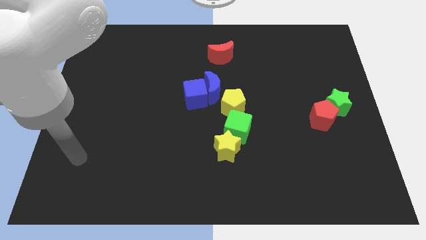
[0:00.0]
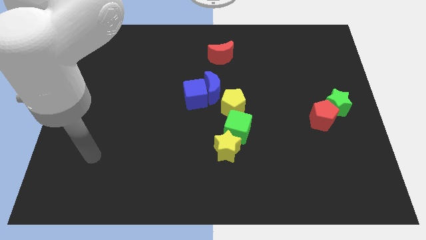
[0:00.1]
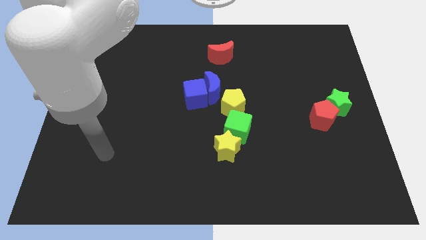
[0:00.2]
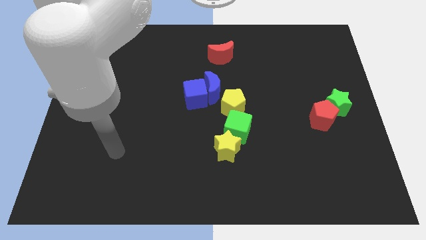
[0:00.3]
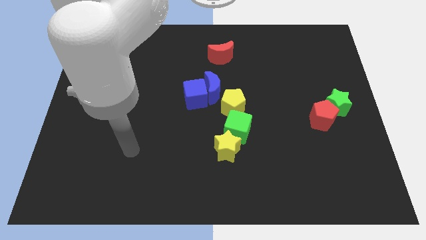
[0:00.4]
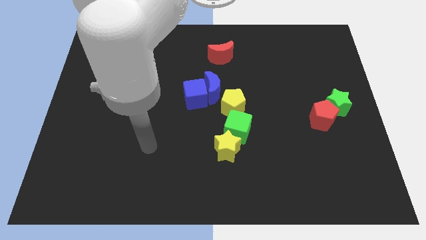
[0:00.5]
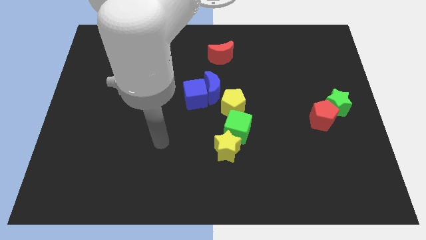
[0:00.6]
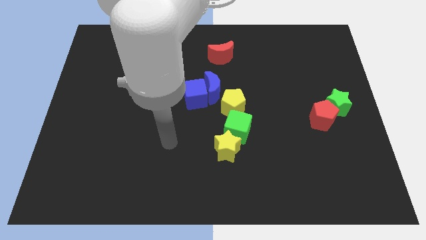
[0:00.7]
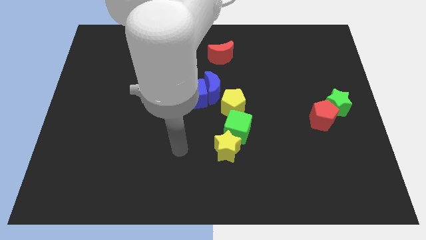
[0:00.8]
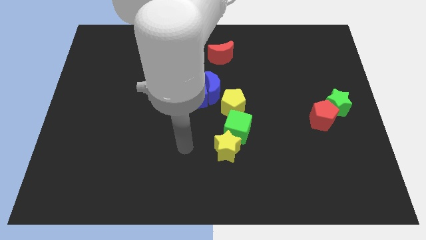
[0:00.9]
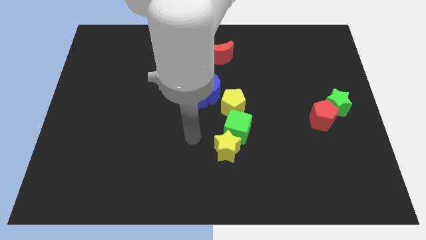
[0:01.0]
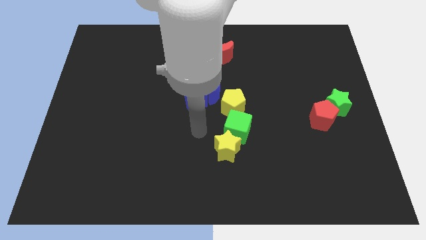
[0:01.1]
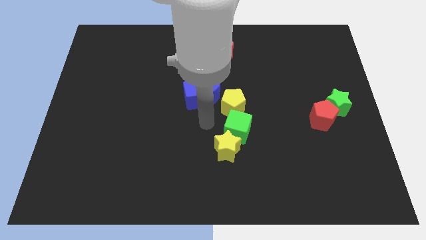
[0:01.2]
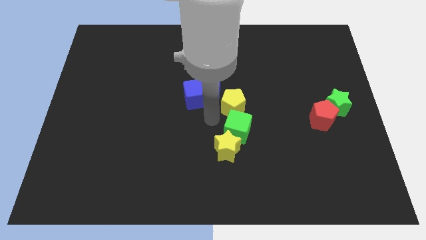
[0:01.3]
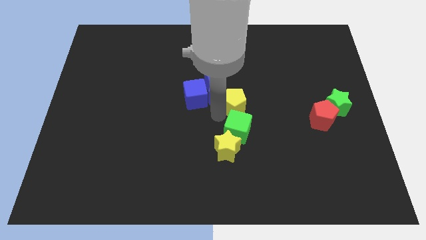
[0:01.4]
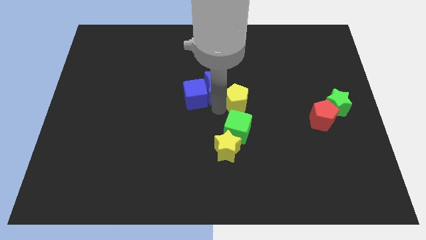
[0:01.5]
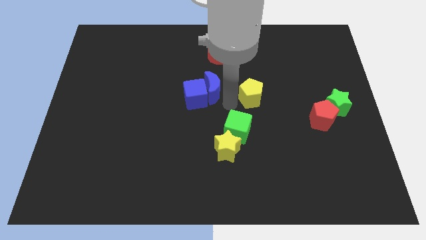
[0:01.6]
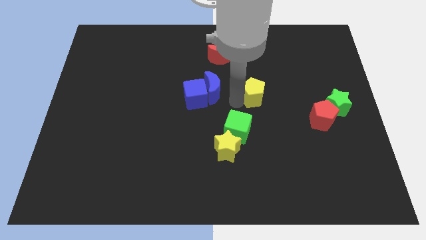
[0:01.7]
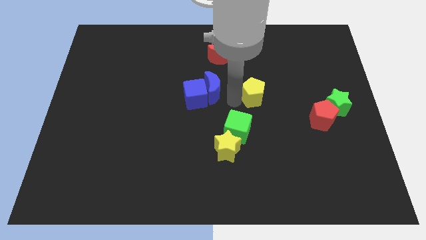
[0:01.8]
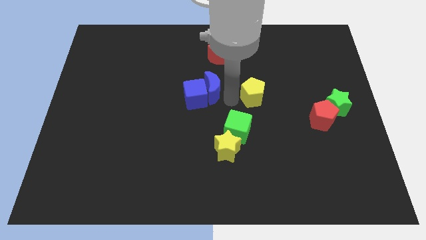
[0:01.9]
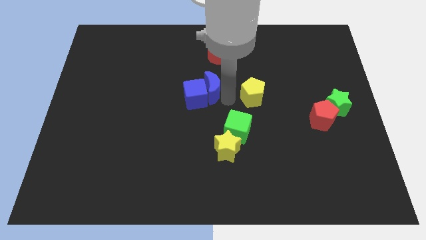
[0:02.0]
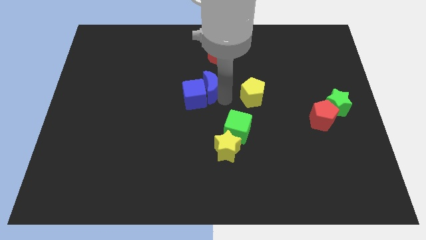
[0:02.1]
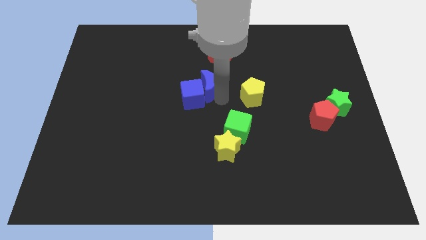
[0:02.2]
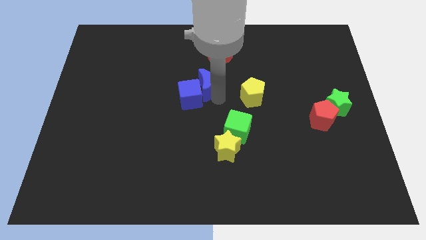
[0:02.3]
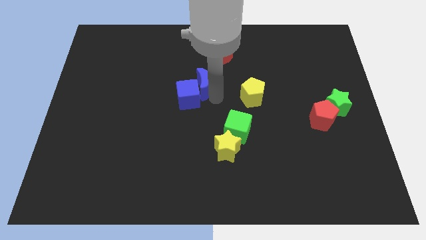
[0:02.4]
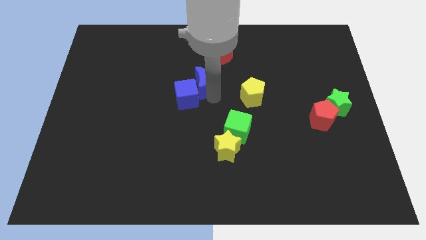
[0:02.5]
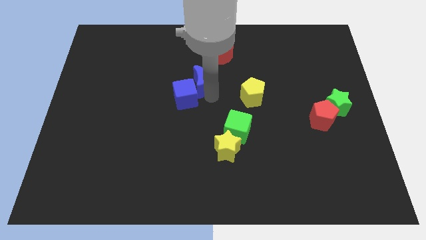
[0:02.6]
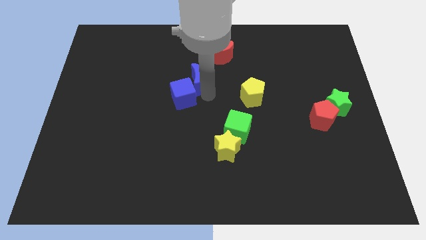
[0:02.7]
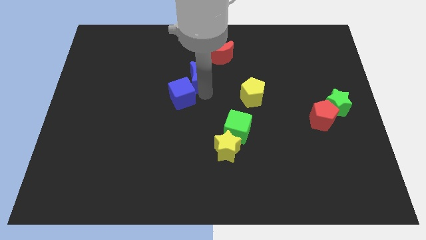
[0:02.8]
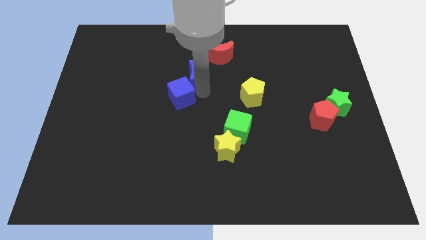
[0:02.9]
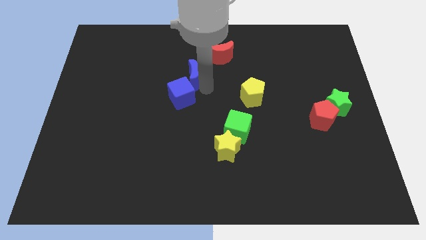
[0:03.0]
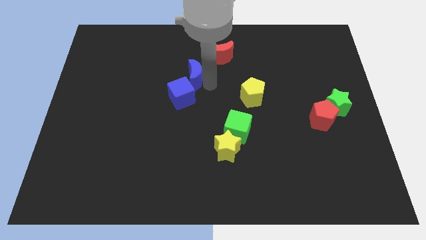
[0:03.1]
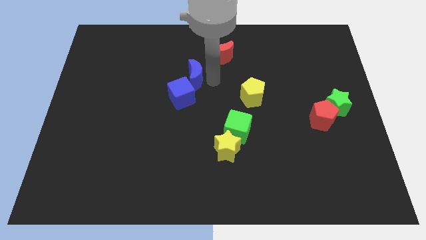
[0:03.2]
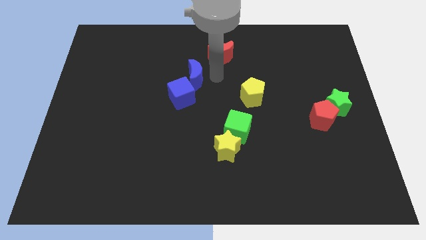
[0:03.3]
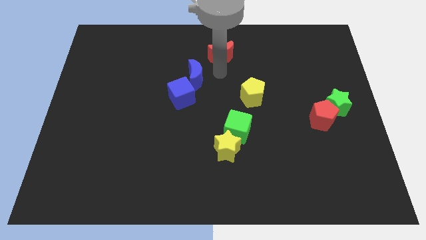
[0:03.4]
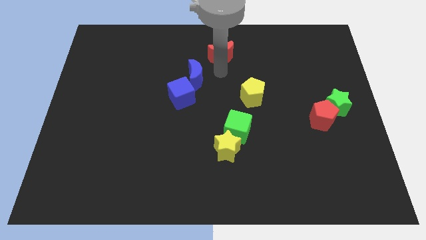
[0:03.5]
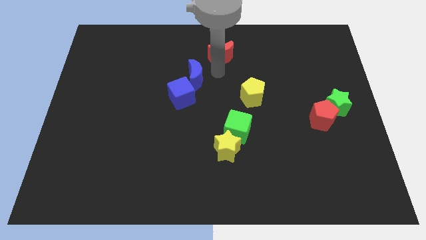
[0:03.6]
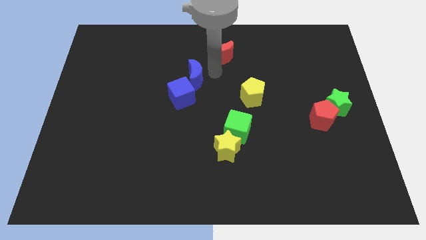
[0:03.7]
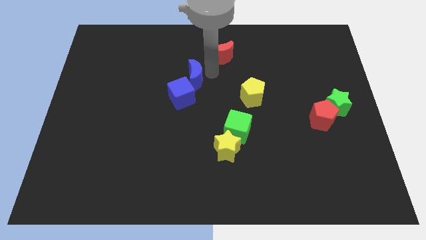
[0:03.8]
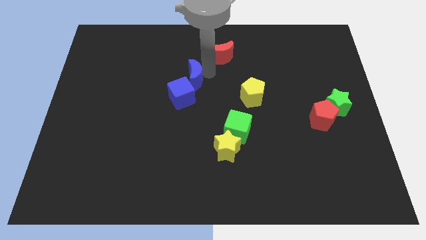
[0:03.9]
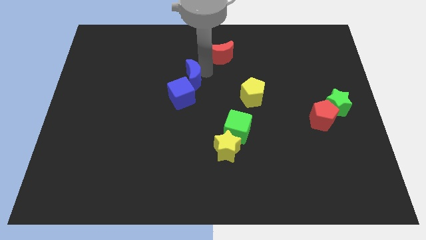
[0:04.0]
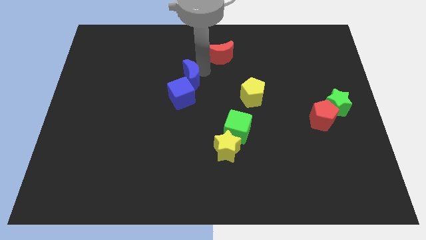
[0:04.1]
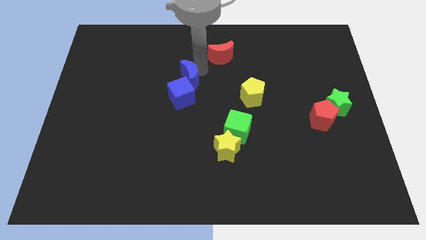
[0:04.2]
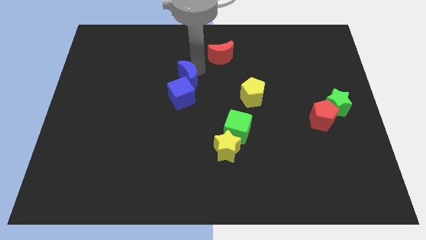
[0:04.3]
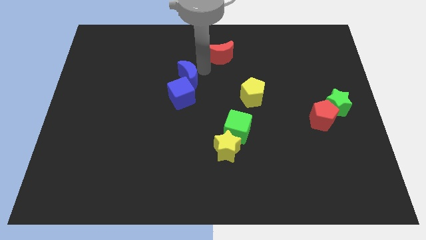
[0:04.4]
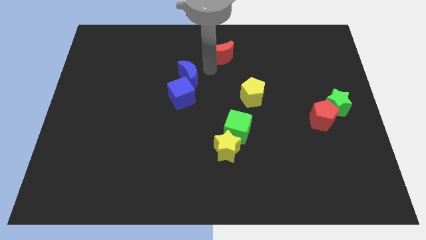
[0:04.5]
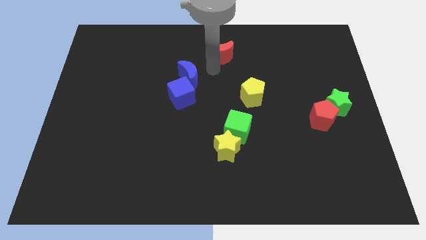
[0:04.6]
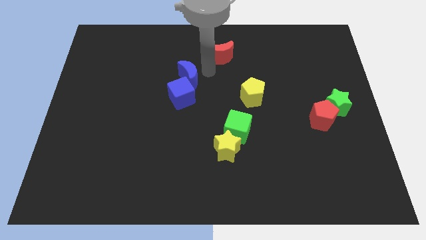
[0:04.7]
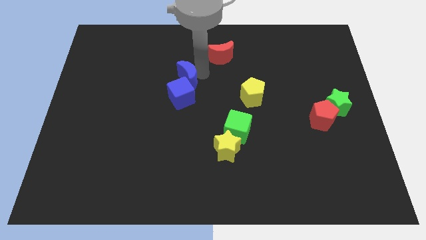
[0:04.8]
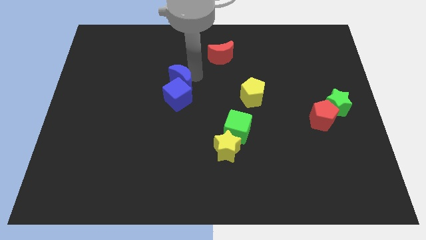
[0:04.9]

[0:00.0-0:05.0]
move the blue moon left somewhat

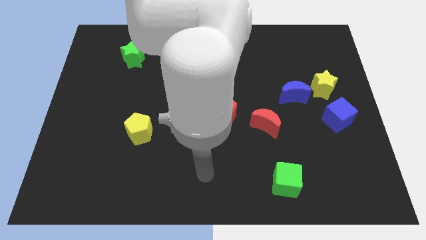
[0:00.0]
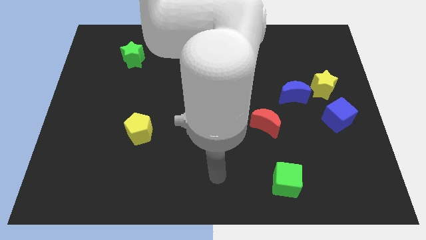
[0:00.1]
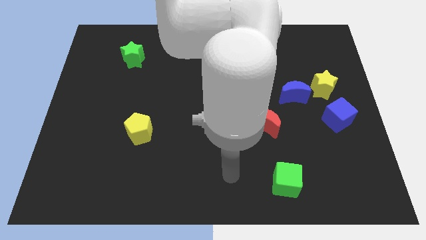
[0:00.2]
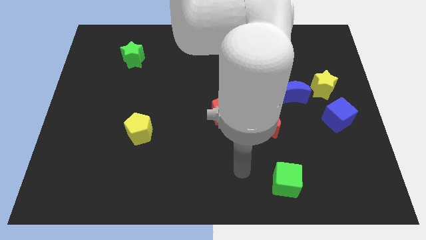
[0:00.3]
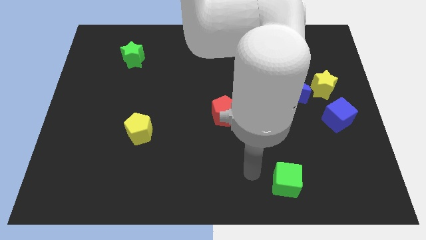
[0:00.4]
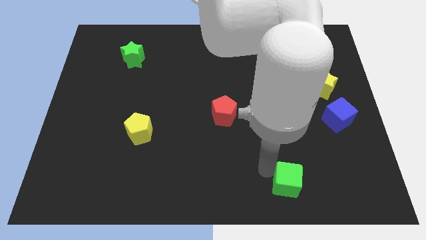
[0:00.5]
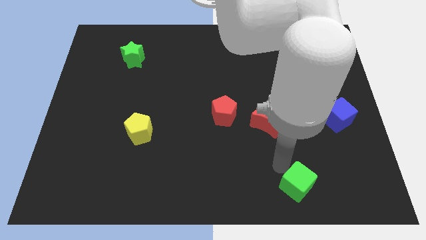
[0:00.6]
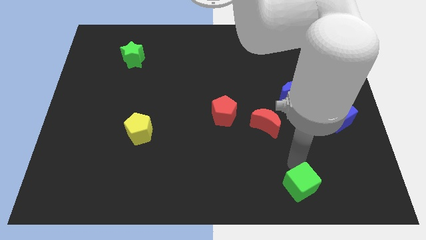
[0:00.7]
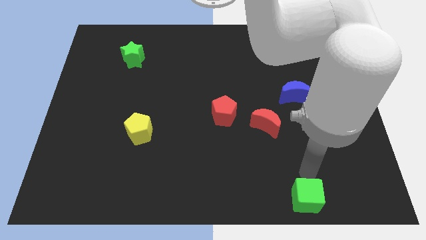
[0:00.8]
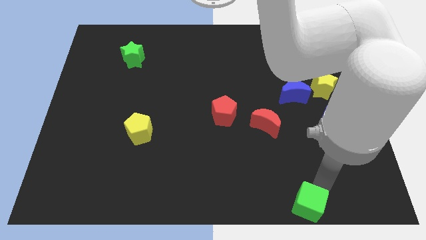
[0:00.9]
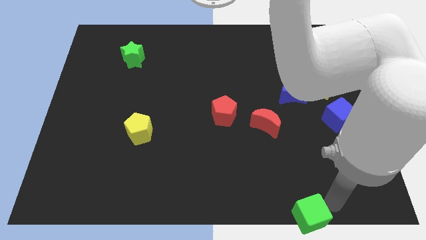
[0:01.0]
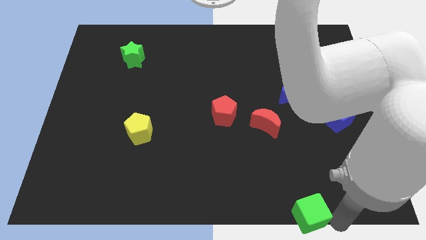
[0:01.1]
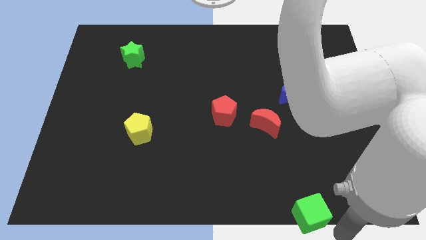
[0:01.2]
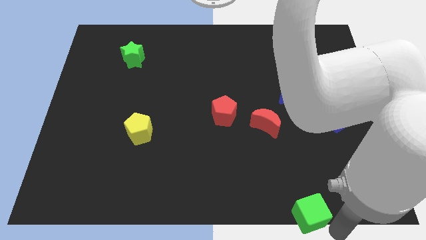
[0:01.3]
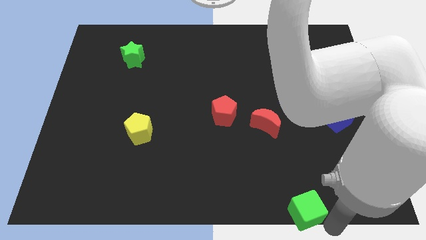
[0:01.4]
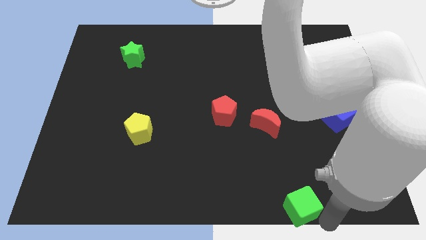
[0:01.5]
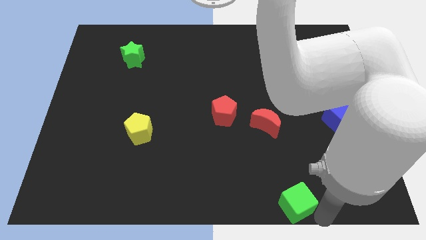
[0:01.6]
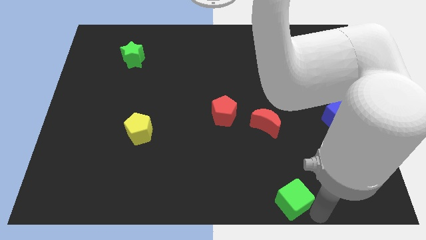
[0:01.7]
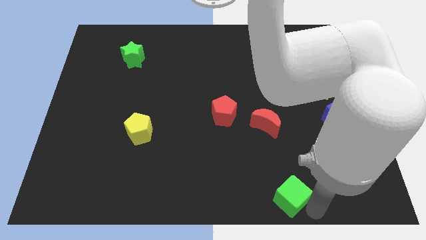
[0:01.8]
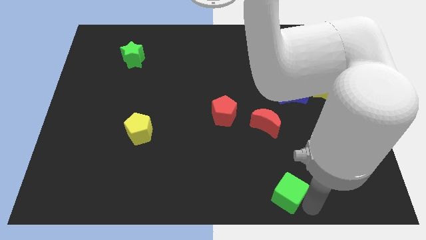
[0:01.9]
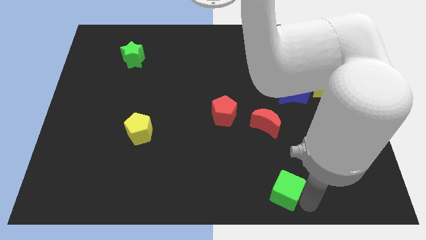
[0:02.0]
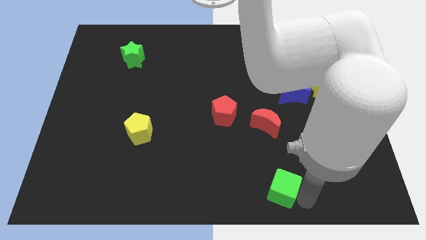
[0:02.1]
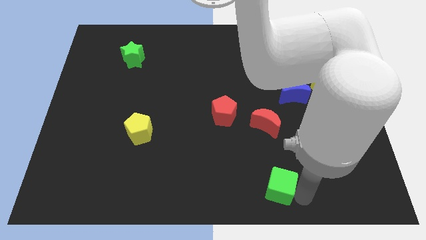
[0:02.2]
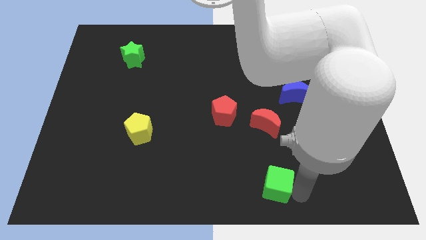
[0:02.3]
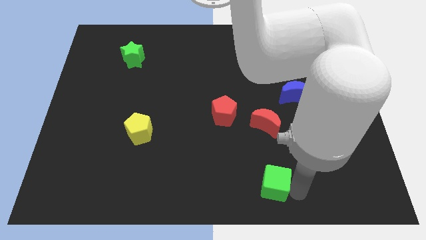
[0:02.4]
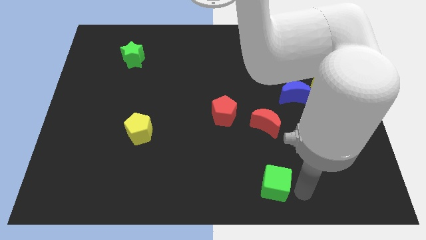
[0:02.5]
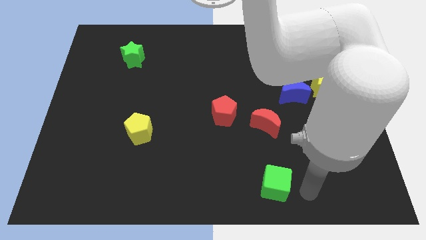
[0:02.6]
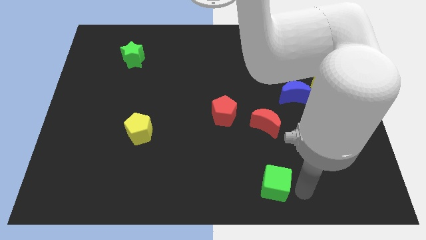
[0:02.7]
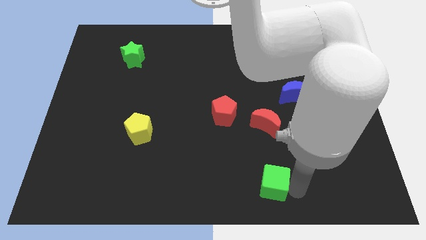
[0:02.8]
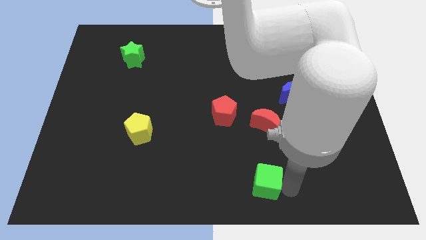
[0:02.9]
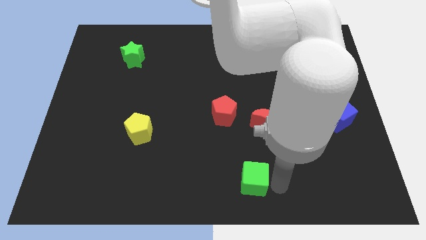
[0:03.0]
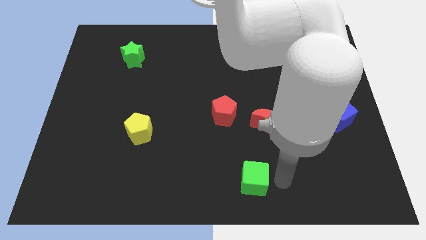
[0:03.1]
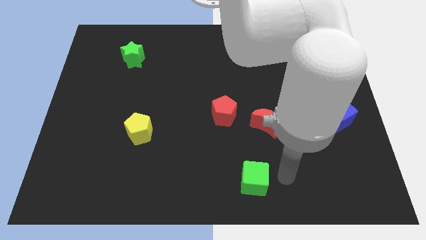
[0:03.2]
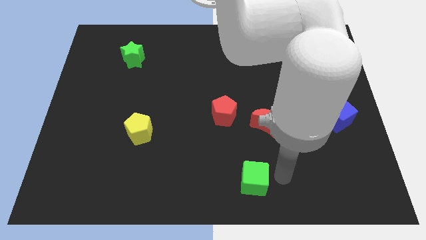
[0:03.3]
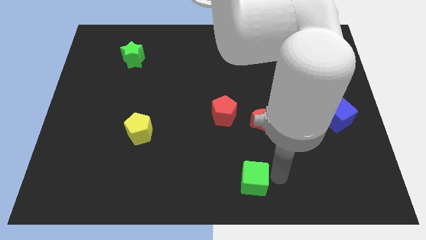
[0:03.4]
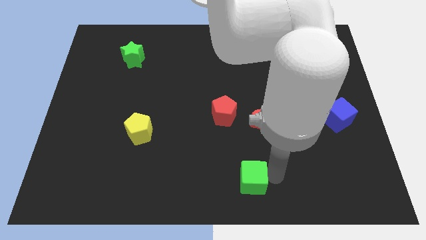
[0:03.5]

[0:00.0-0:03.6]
push the green cube to the left slightly

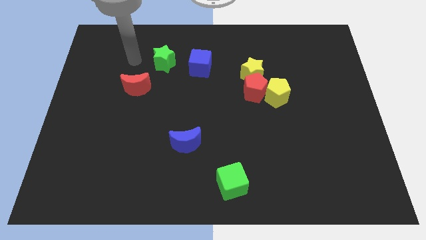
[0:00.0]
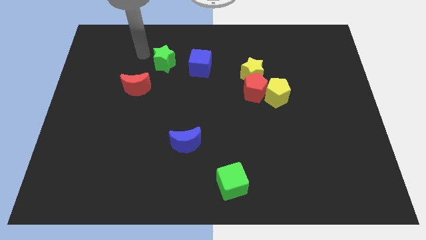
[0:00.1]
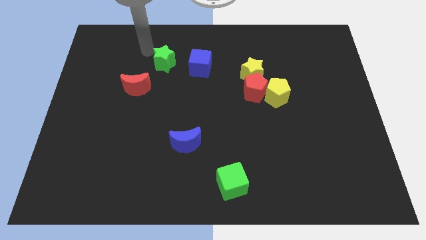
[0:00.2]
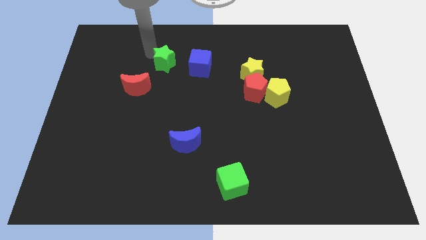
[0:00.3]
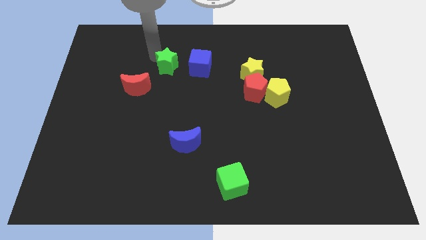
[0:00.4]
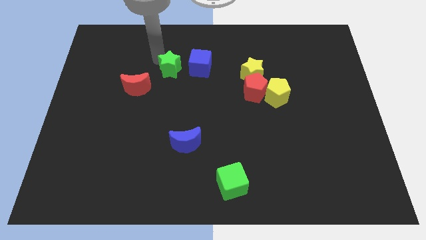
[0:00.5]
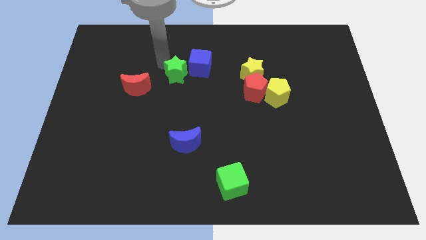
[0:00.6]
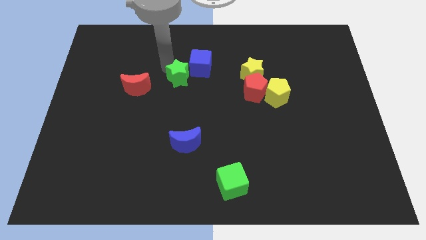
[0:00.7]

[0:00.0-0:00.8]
push the green star diagonally down and right a little
